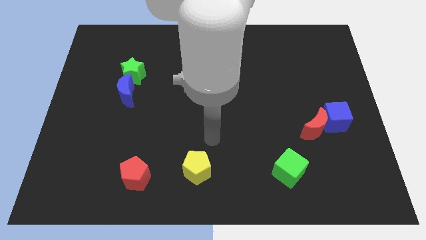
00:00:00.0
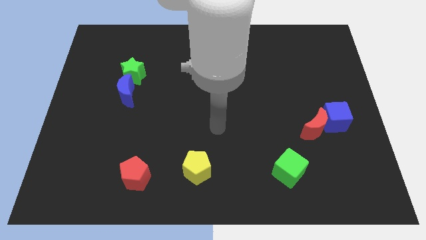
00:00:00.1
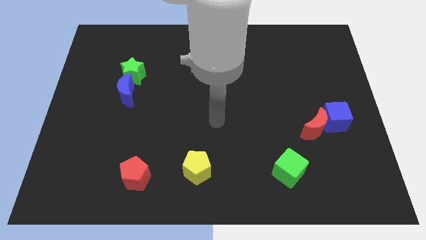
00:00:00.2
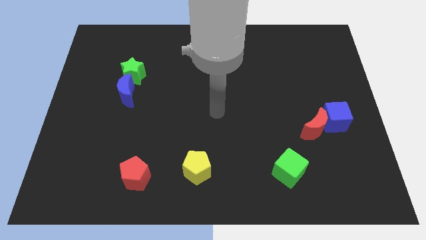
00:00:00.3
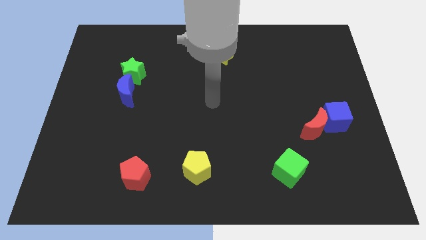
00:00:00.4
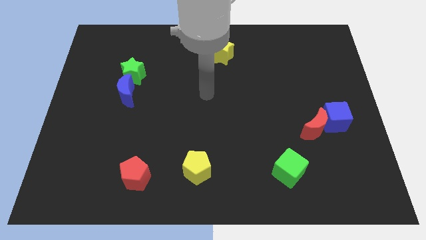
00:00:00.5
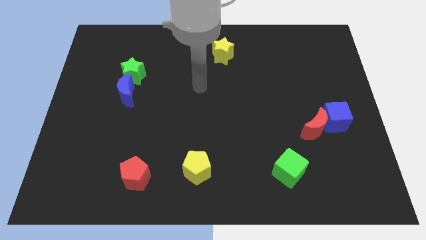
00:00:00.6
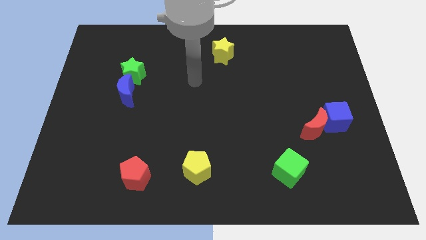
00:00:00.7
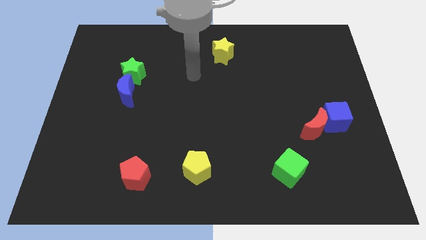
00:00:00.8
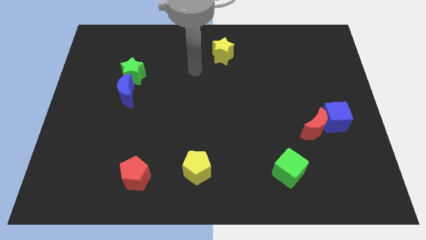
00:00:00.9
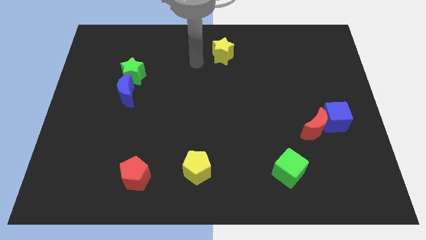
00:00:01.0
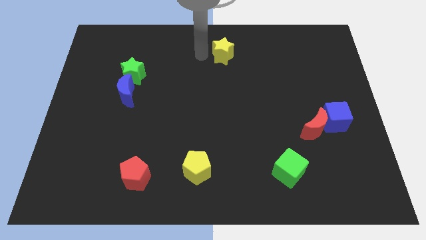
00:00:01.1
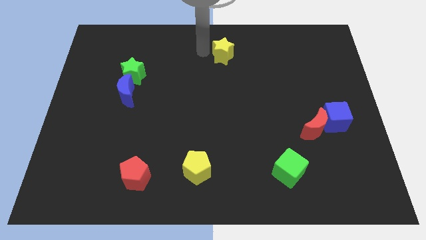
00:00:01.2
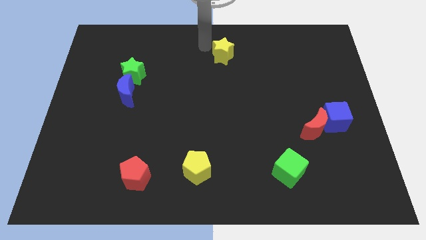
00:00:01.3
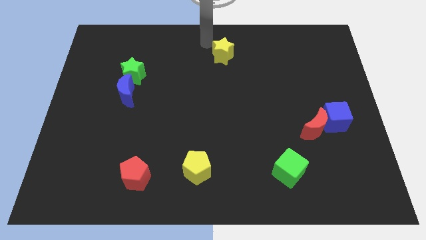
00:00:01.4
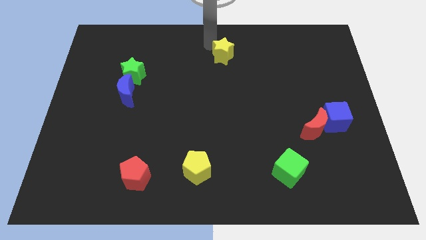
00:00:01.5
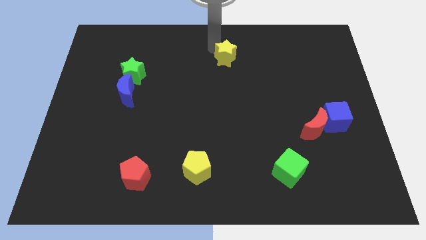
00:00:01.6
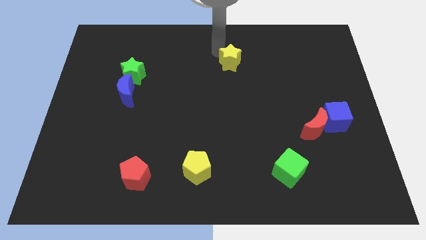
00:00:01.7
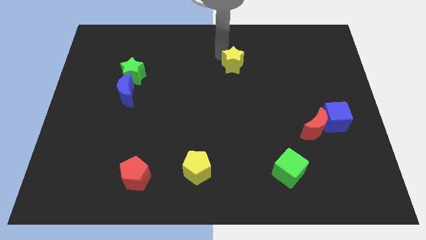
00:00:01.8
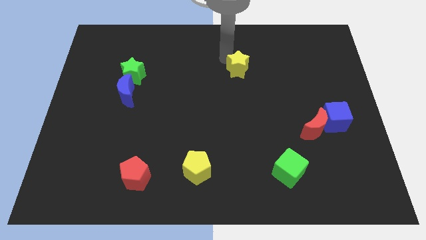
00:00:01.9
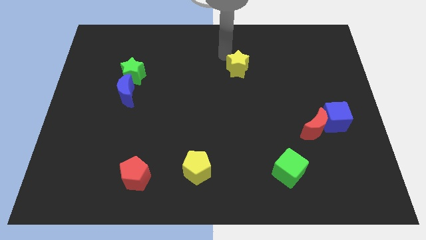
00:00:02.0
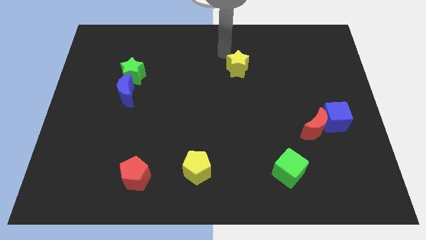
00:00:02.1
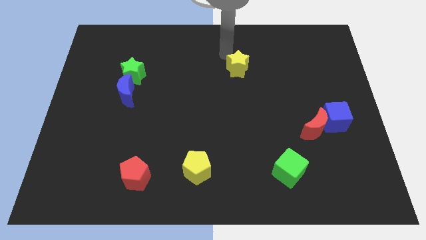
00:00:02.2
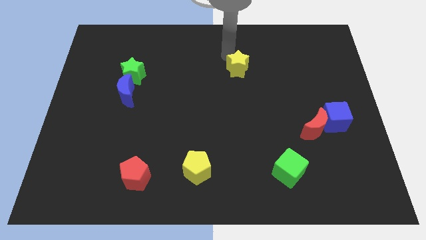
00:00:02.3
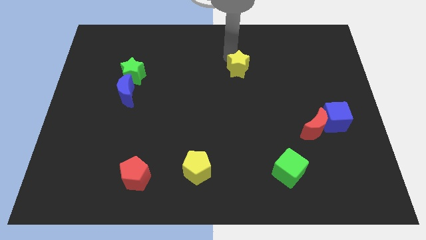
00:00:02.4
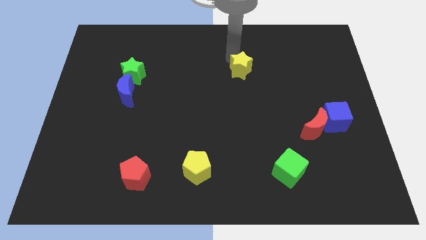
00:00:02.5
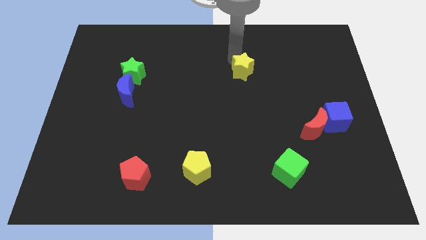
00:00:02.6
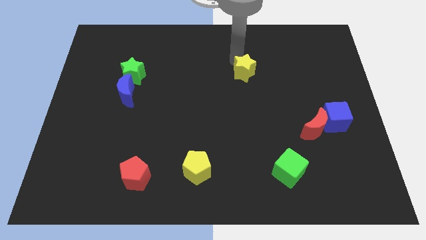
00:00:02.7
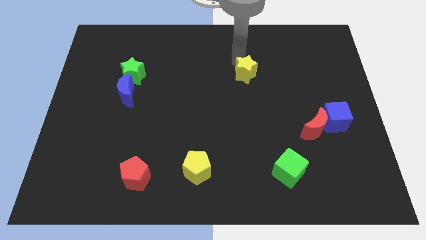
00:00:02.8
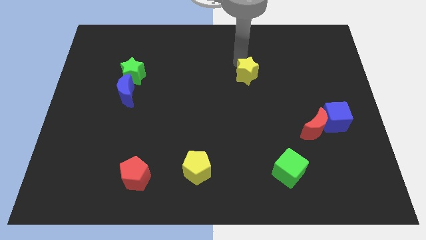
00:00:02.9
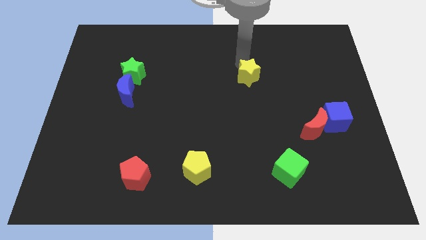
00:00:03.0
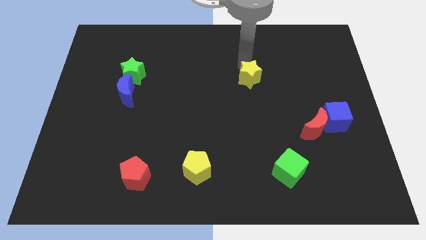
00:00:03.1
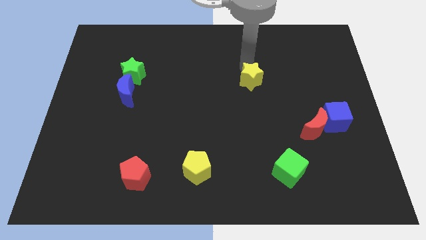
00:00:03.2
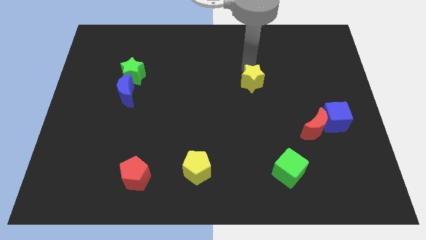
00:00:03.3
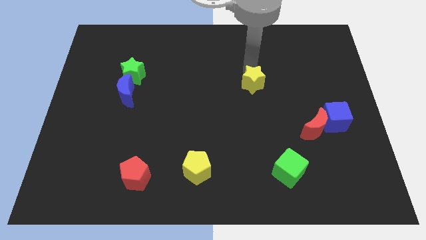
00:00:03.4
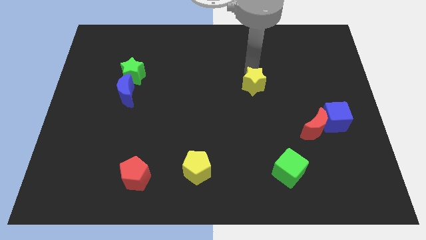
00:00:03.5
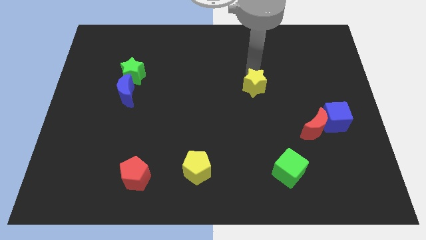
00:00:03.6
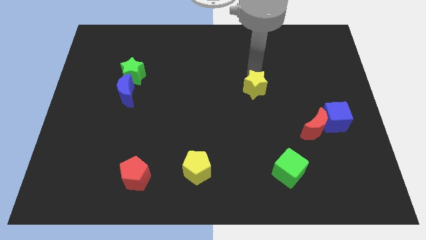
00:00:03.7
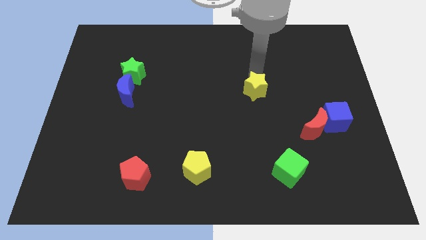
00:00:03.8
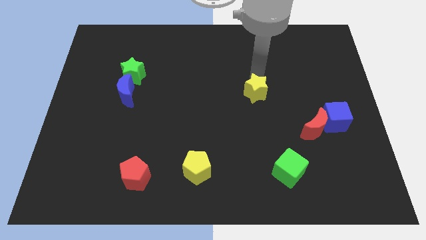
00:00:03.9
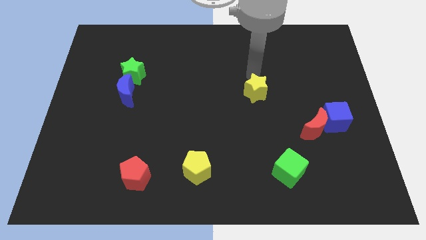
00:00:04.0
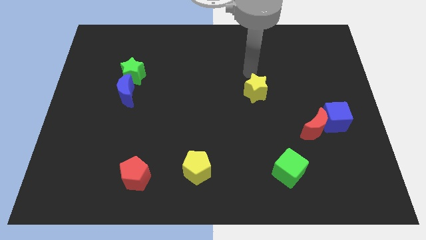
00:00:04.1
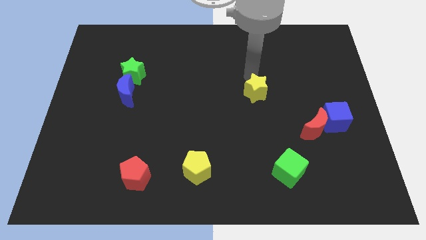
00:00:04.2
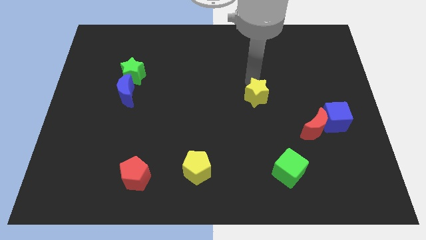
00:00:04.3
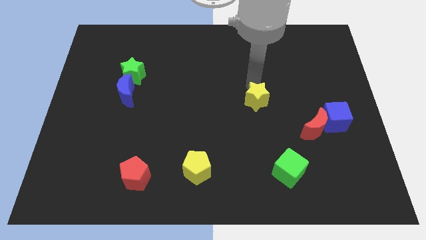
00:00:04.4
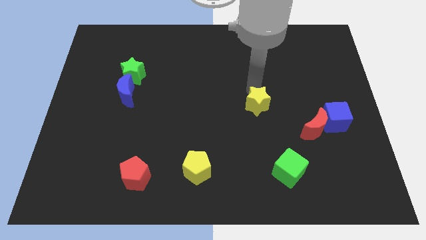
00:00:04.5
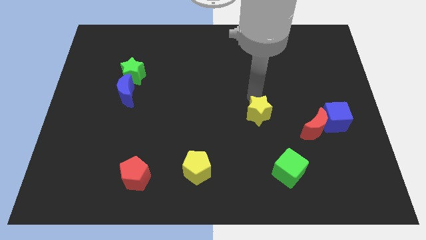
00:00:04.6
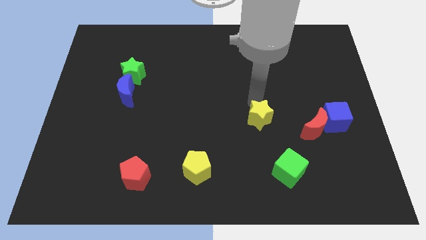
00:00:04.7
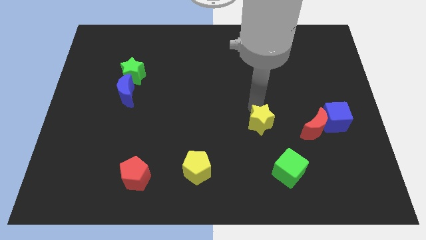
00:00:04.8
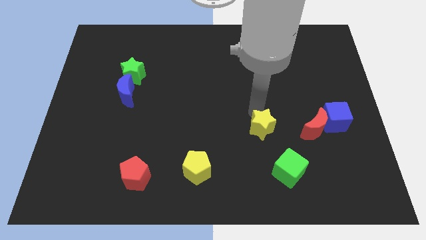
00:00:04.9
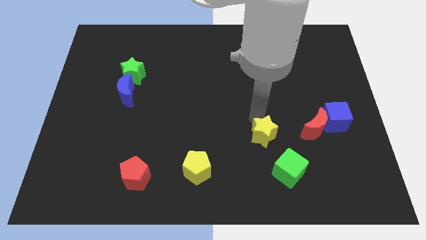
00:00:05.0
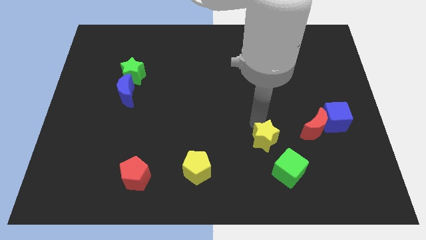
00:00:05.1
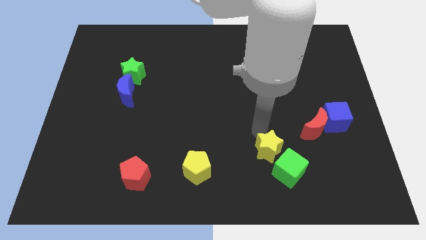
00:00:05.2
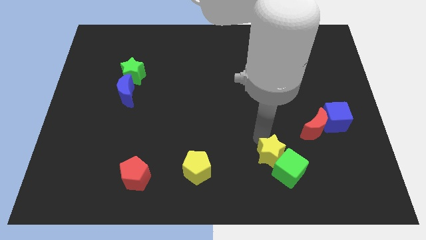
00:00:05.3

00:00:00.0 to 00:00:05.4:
slide the yellow star close to the green cube

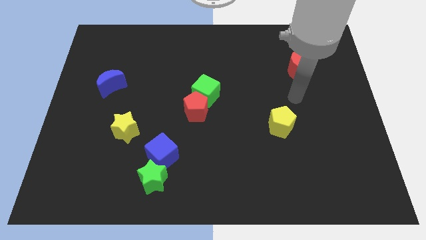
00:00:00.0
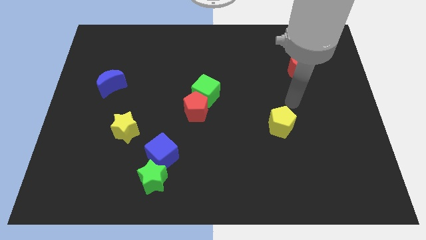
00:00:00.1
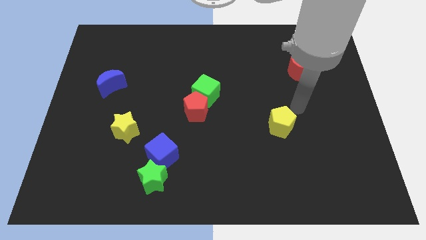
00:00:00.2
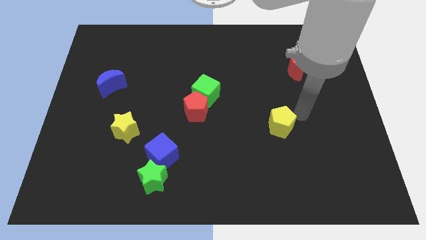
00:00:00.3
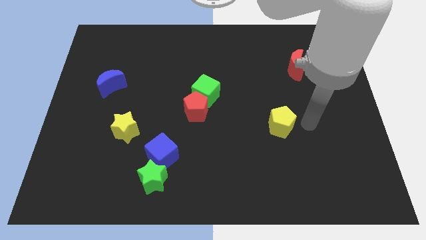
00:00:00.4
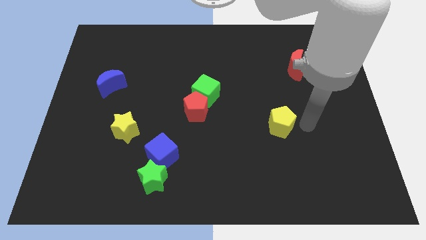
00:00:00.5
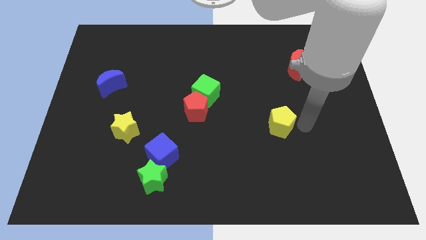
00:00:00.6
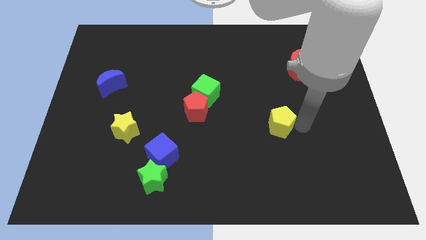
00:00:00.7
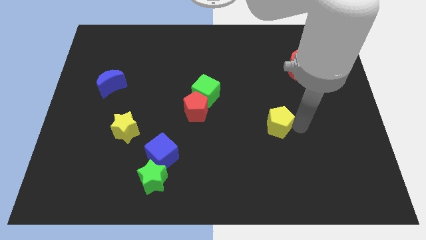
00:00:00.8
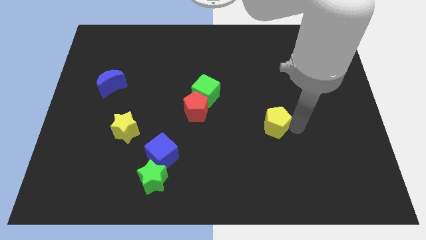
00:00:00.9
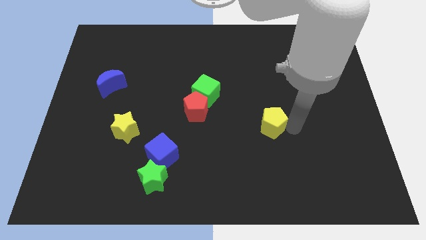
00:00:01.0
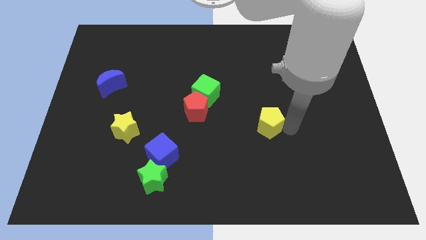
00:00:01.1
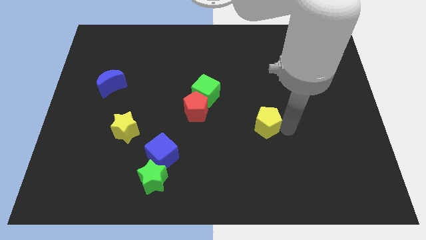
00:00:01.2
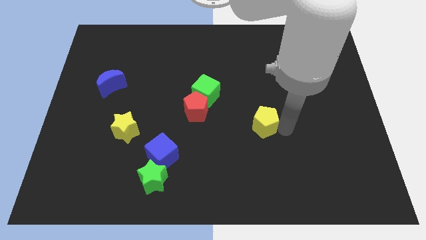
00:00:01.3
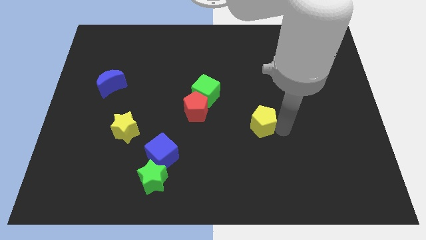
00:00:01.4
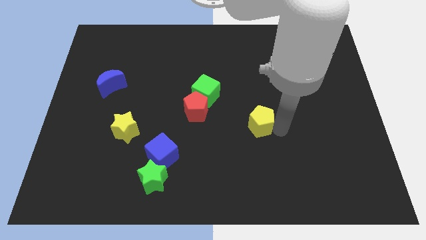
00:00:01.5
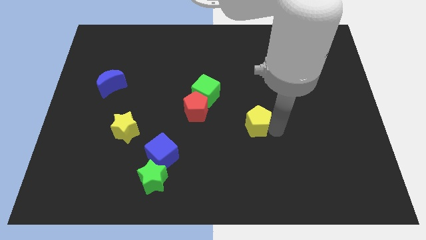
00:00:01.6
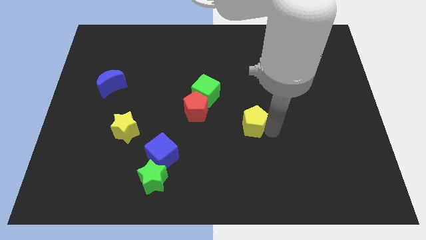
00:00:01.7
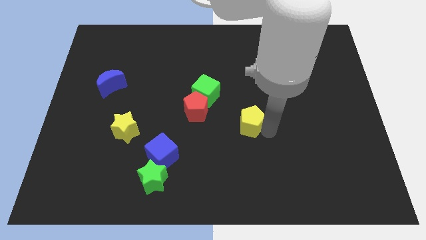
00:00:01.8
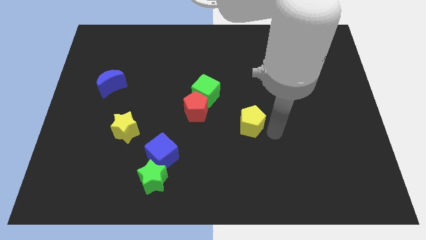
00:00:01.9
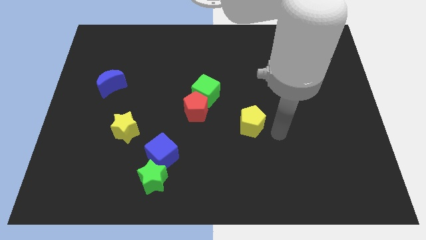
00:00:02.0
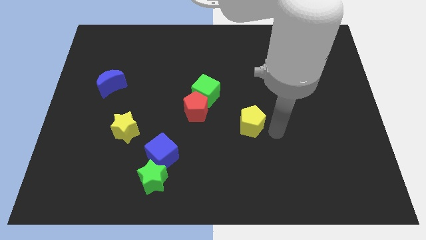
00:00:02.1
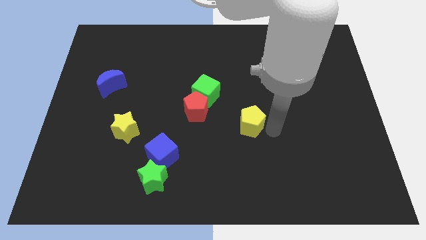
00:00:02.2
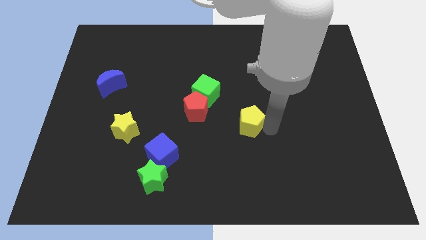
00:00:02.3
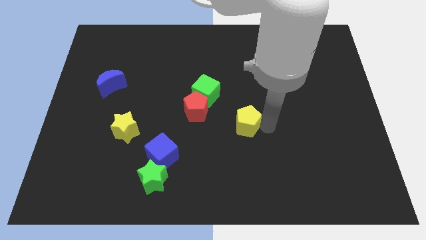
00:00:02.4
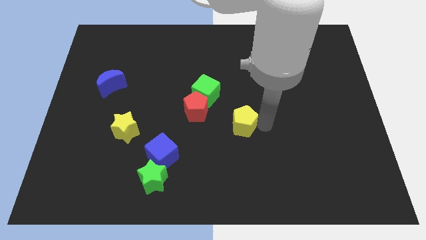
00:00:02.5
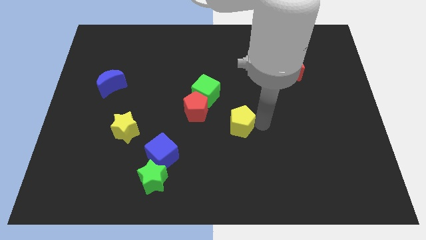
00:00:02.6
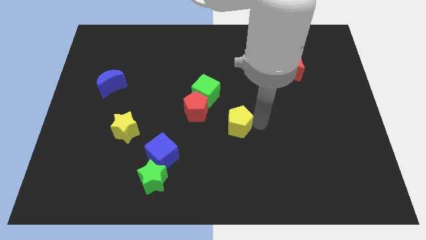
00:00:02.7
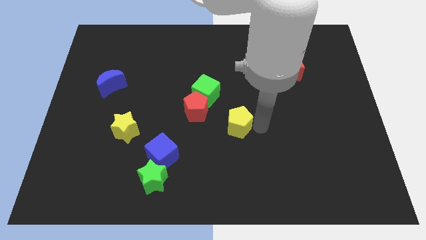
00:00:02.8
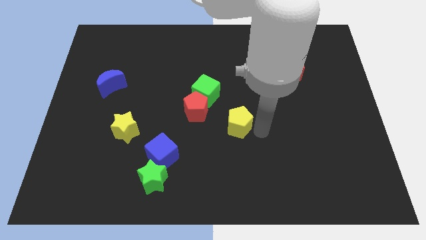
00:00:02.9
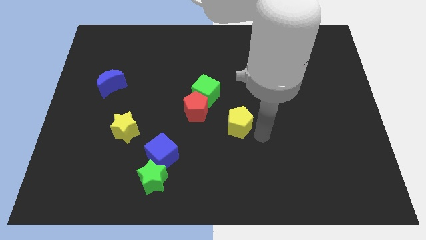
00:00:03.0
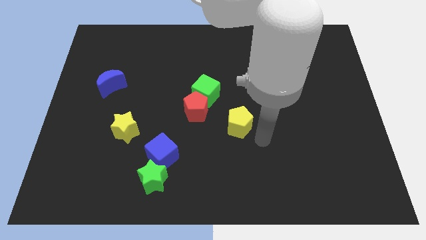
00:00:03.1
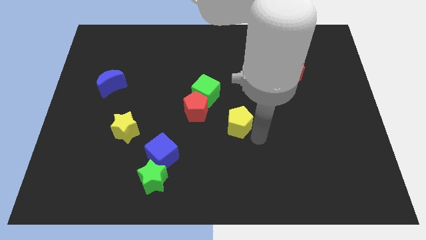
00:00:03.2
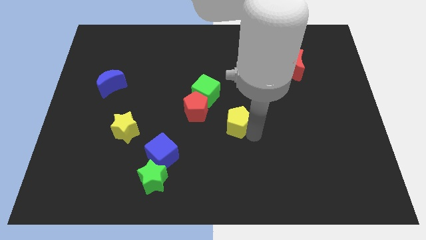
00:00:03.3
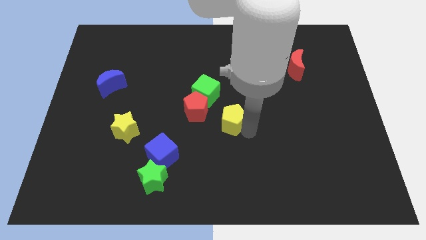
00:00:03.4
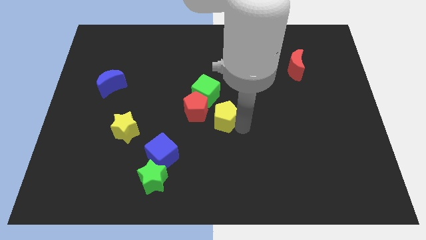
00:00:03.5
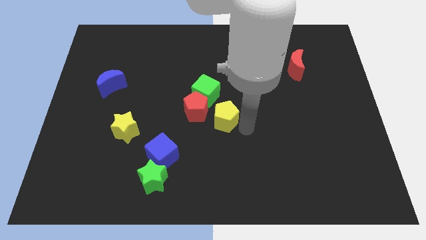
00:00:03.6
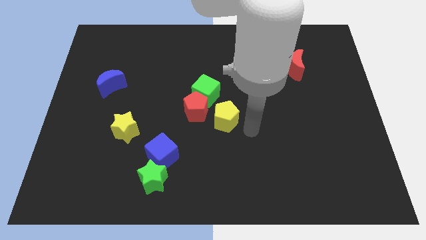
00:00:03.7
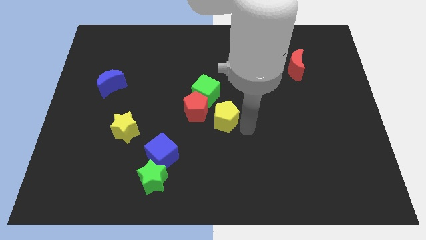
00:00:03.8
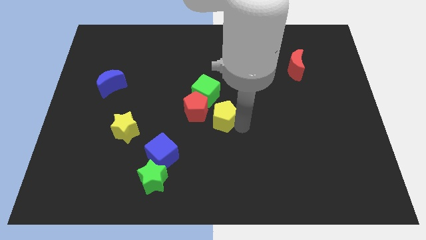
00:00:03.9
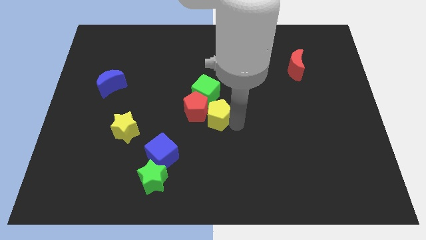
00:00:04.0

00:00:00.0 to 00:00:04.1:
slide the yellow pentagon to the red pentagon
